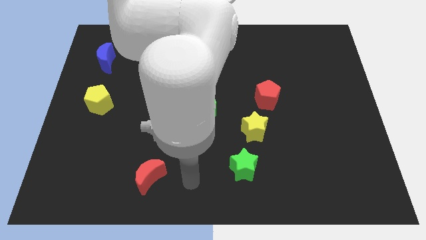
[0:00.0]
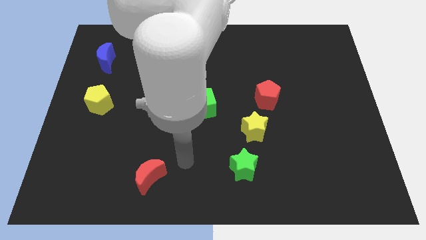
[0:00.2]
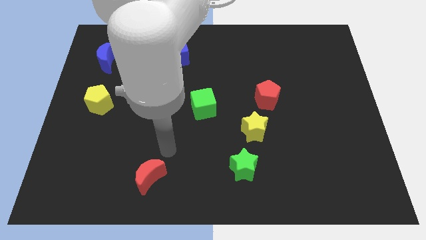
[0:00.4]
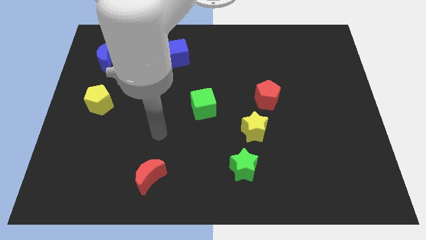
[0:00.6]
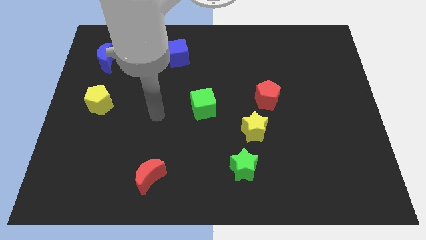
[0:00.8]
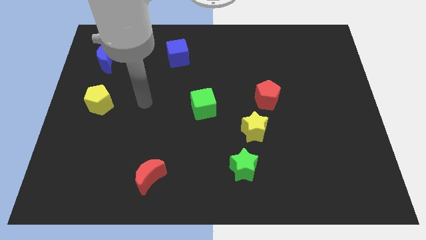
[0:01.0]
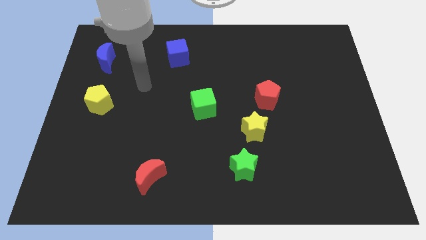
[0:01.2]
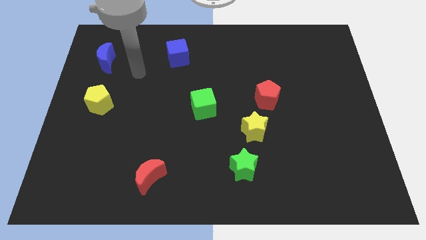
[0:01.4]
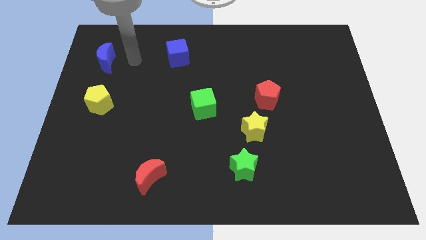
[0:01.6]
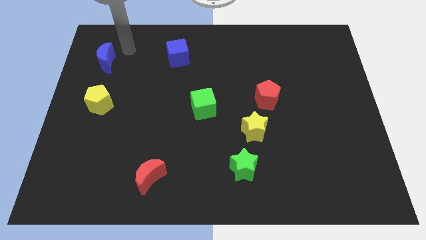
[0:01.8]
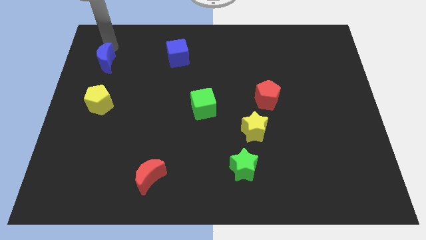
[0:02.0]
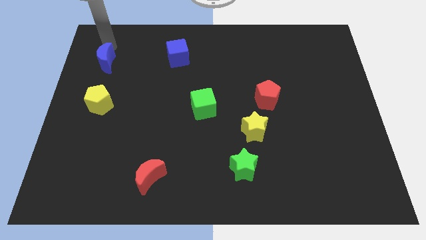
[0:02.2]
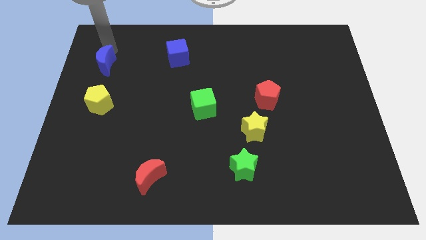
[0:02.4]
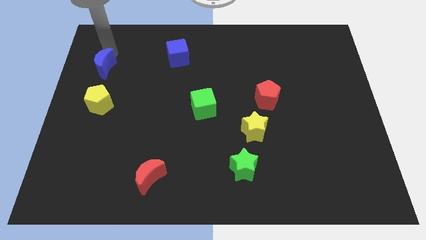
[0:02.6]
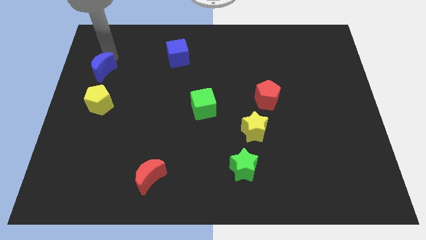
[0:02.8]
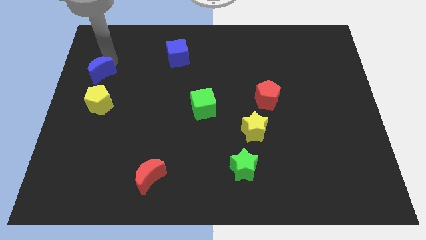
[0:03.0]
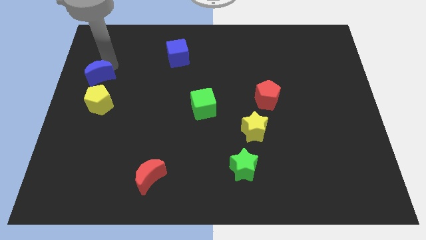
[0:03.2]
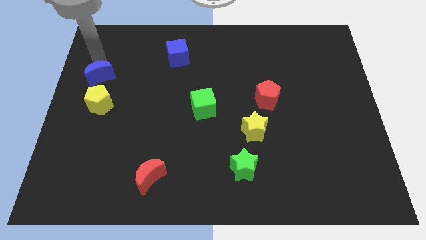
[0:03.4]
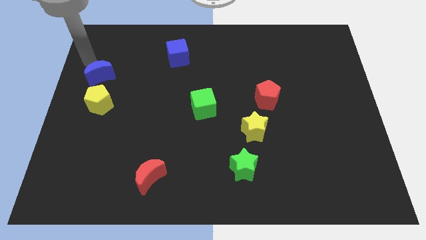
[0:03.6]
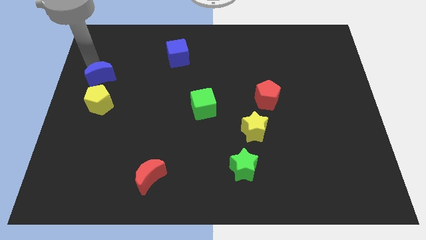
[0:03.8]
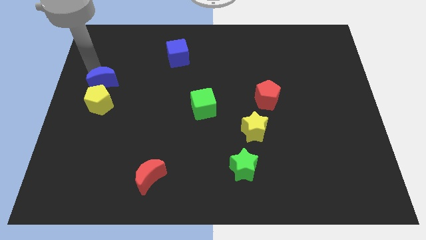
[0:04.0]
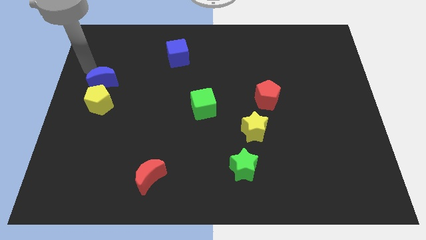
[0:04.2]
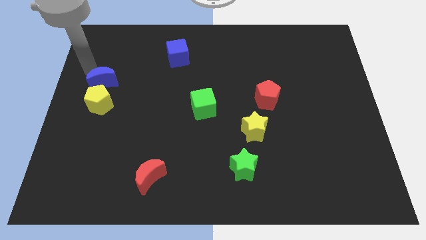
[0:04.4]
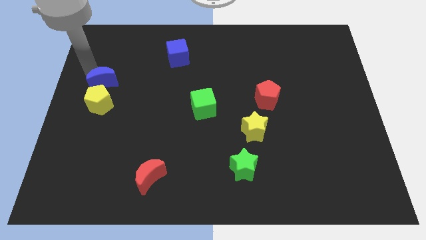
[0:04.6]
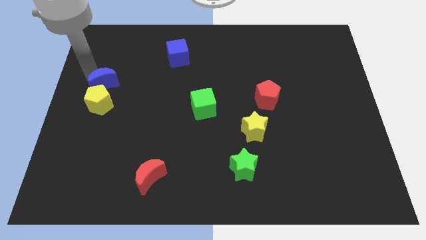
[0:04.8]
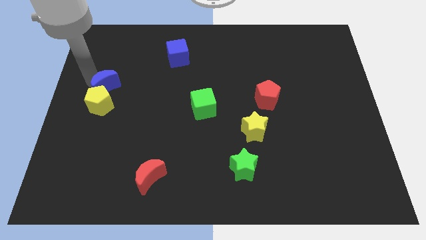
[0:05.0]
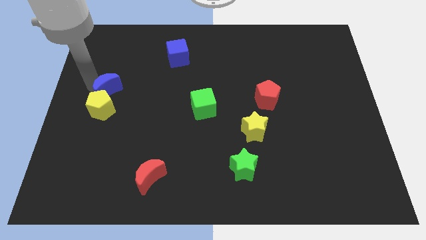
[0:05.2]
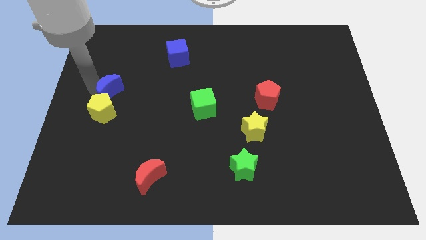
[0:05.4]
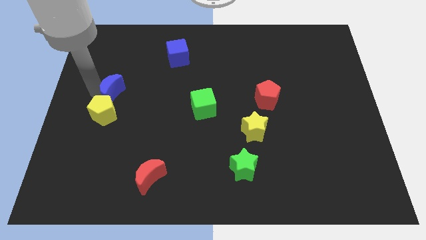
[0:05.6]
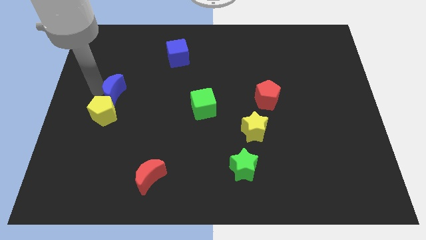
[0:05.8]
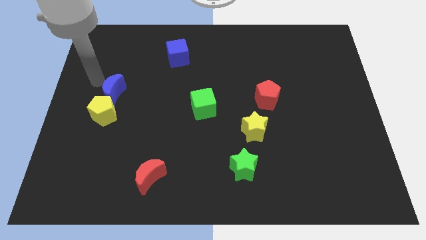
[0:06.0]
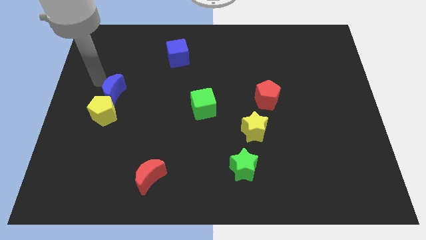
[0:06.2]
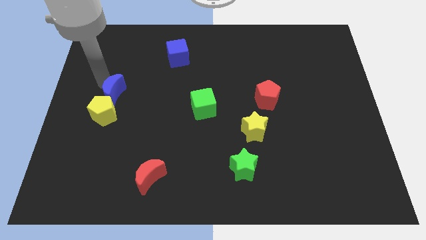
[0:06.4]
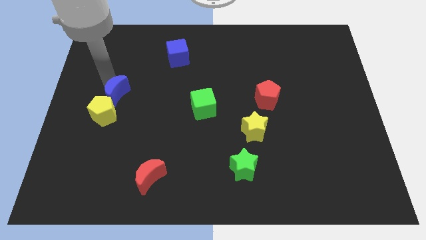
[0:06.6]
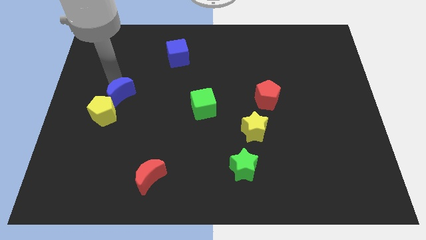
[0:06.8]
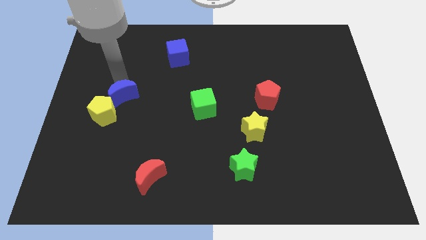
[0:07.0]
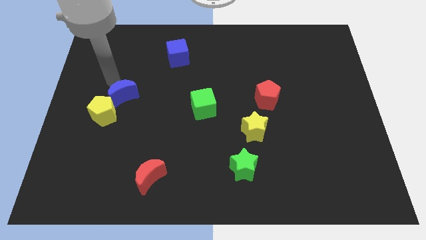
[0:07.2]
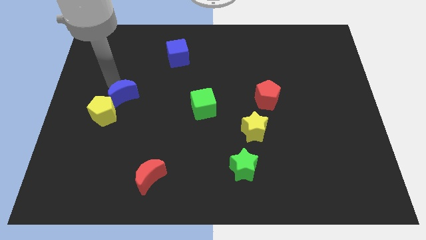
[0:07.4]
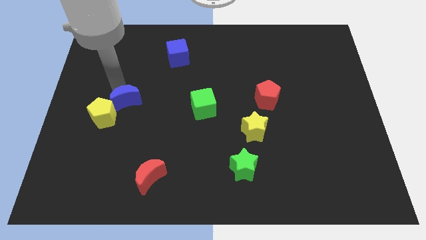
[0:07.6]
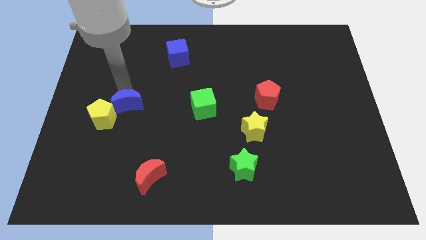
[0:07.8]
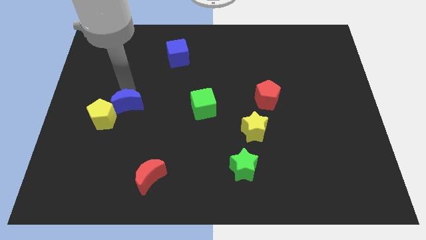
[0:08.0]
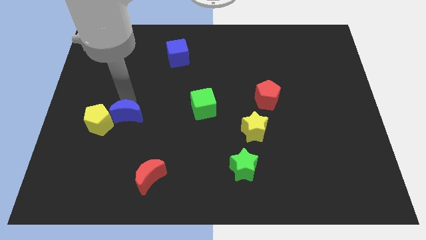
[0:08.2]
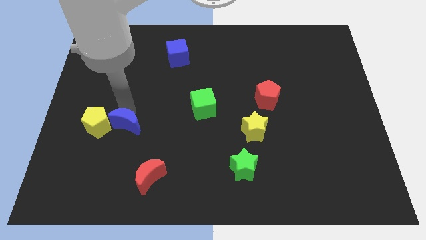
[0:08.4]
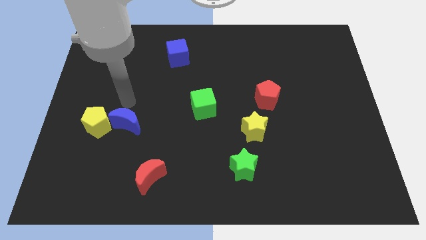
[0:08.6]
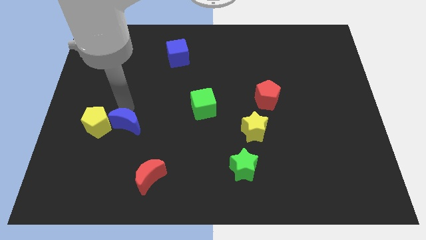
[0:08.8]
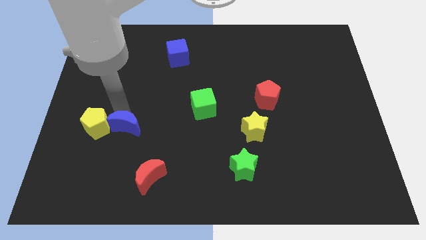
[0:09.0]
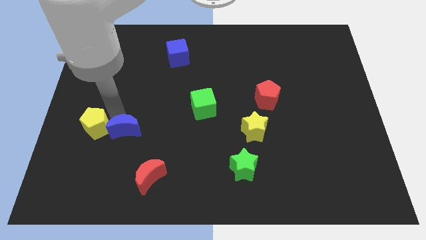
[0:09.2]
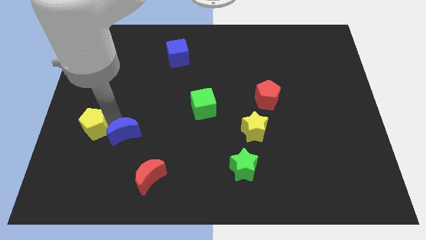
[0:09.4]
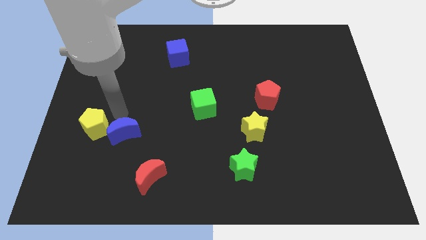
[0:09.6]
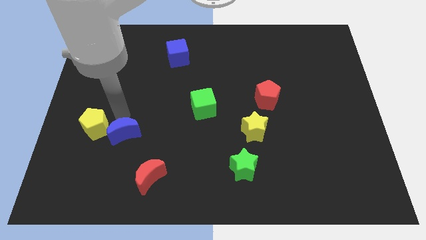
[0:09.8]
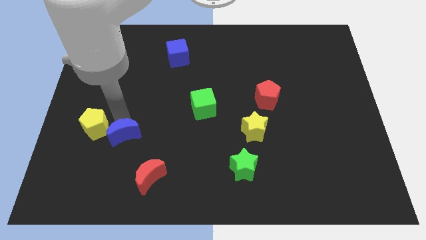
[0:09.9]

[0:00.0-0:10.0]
push the blue moon to the top left side of the red moon

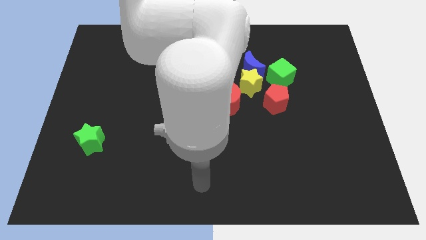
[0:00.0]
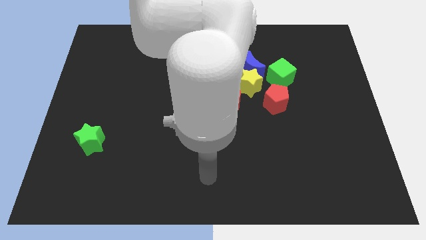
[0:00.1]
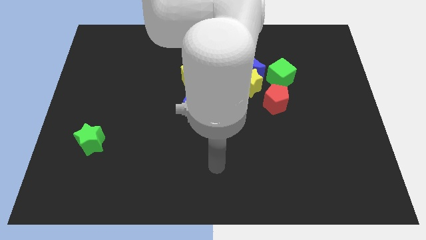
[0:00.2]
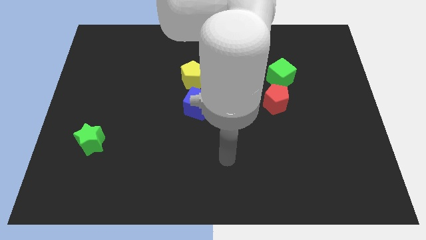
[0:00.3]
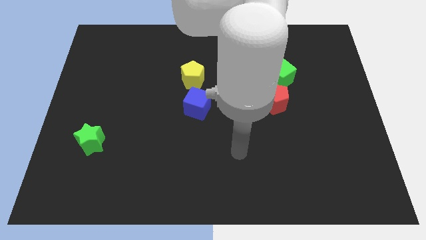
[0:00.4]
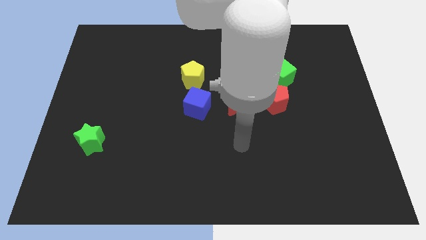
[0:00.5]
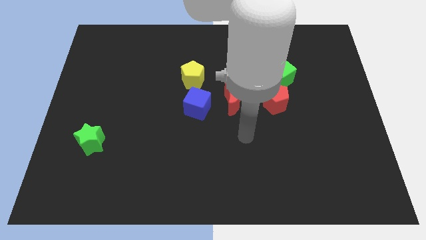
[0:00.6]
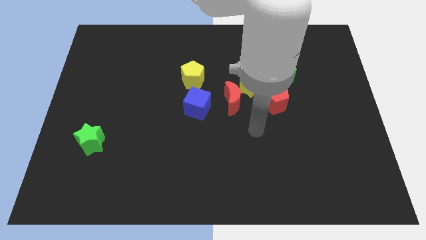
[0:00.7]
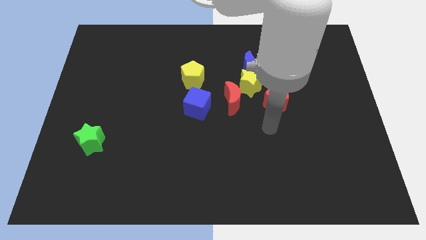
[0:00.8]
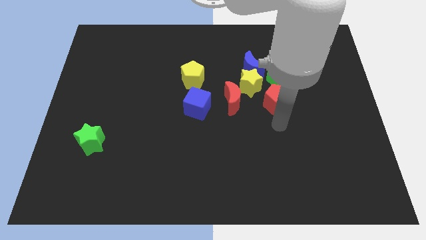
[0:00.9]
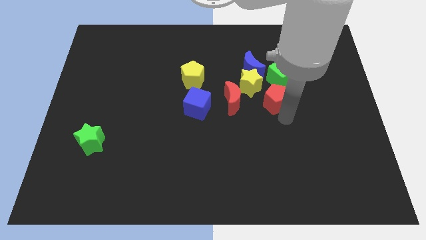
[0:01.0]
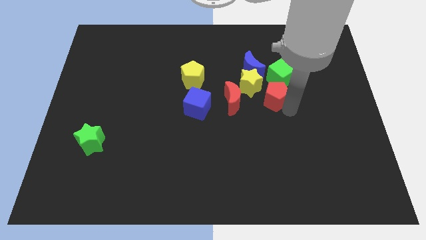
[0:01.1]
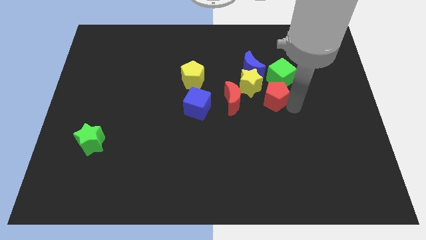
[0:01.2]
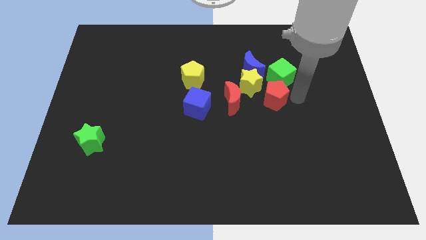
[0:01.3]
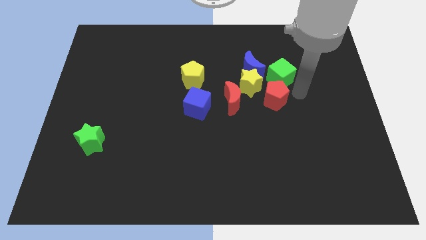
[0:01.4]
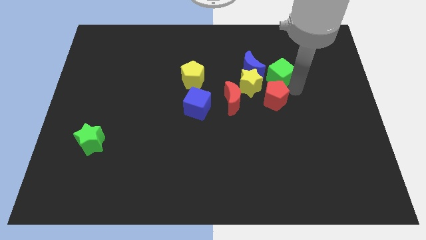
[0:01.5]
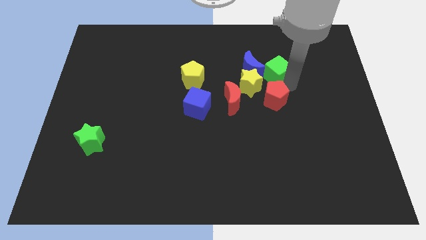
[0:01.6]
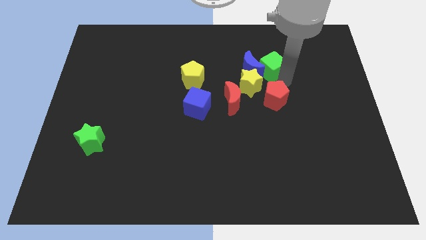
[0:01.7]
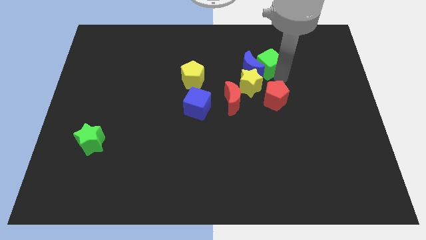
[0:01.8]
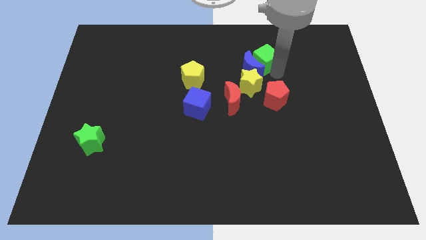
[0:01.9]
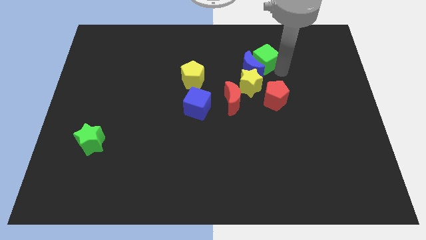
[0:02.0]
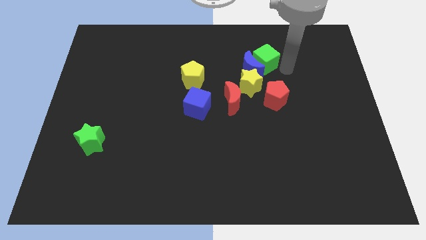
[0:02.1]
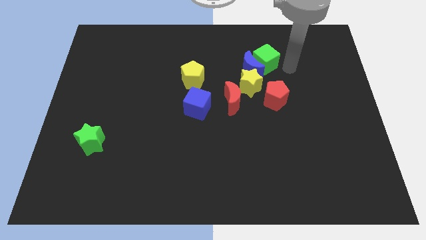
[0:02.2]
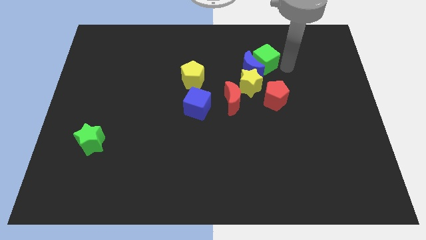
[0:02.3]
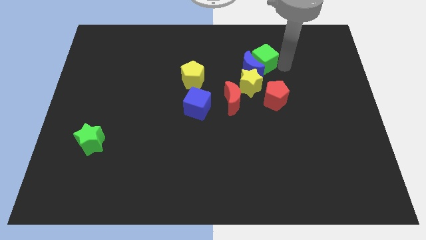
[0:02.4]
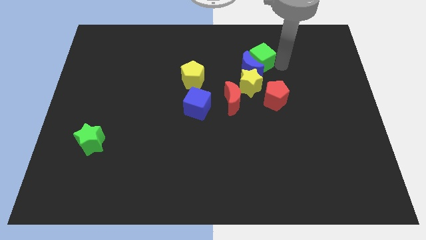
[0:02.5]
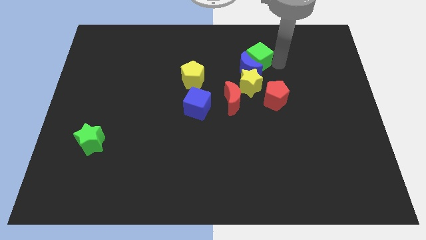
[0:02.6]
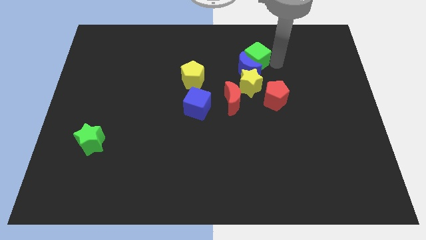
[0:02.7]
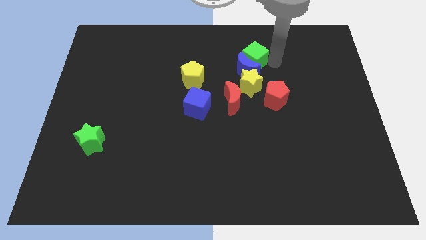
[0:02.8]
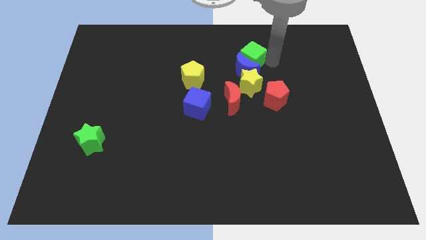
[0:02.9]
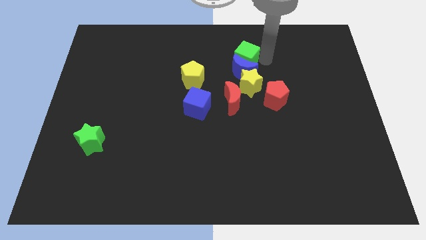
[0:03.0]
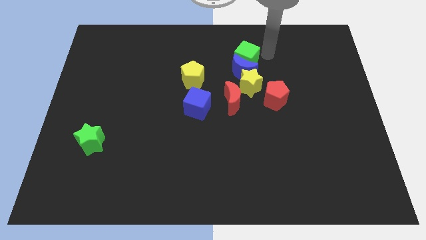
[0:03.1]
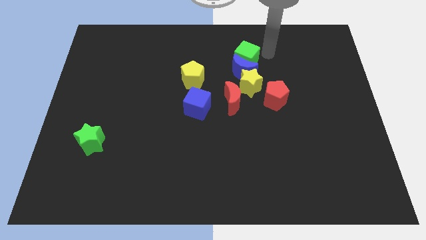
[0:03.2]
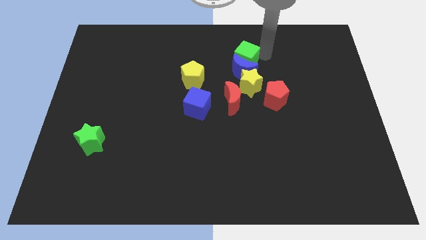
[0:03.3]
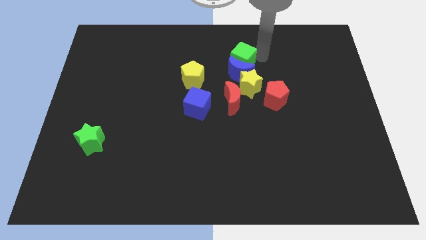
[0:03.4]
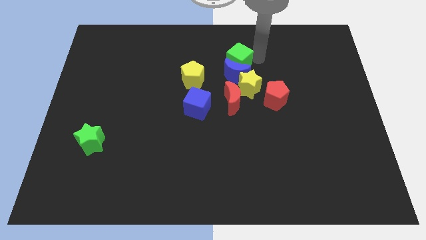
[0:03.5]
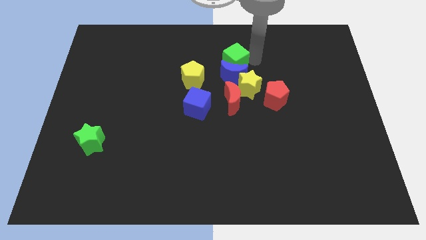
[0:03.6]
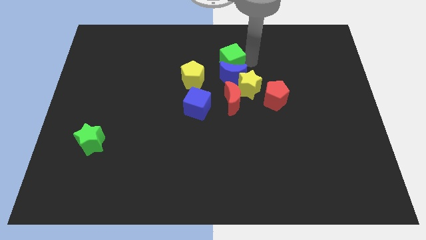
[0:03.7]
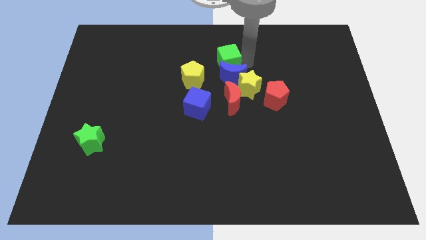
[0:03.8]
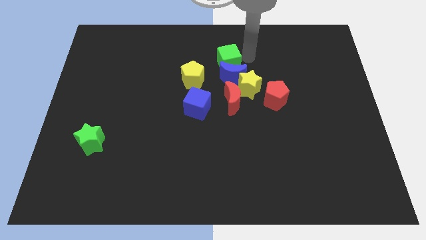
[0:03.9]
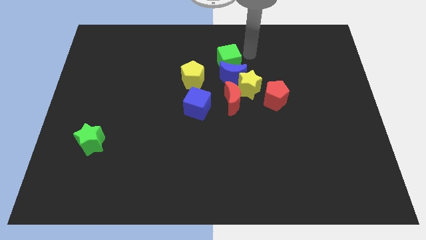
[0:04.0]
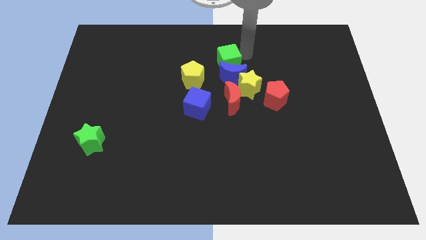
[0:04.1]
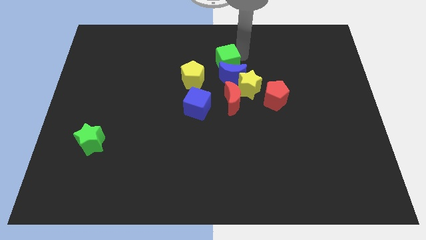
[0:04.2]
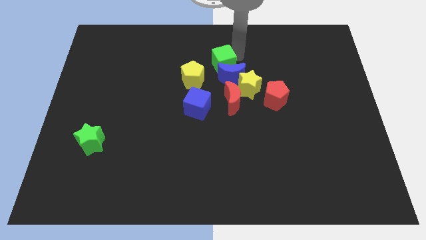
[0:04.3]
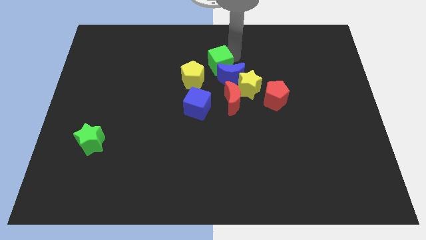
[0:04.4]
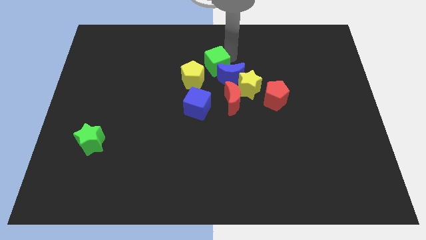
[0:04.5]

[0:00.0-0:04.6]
move the green cube just left of the blue moon
